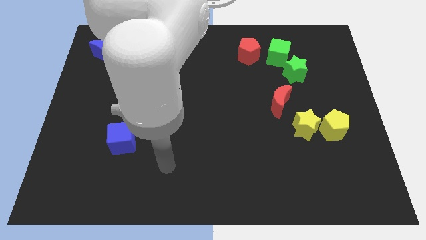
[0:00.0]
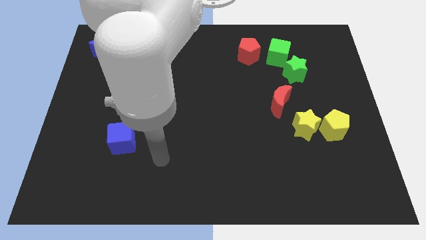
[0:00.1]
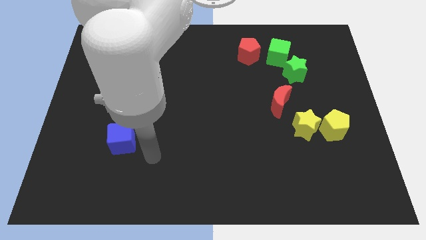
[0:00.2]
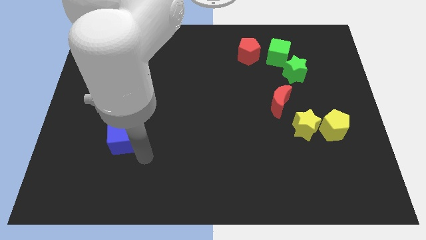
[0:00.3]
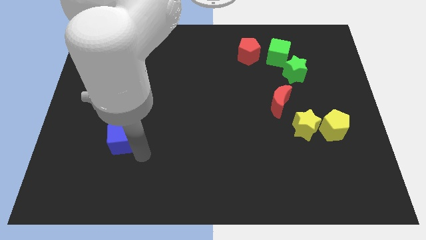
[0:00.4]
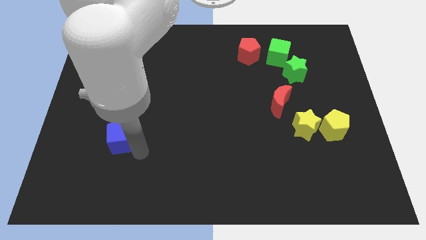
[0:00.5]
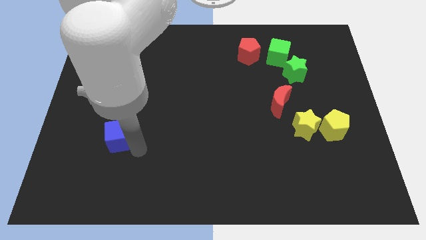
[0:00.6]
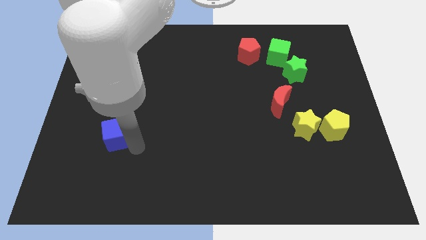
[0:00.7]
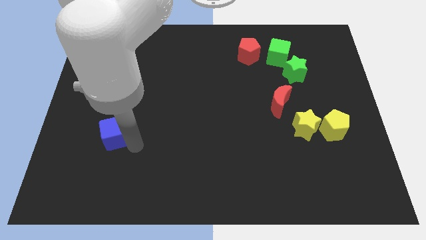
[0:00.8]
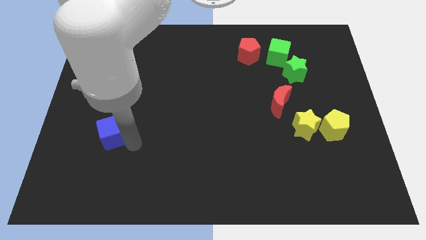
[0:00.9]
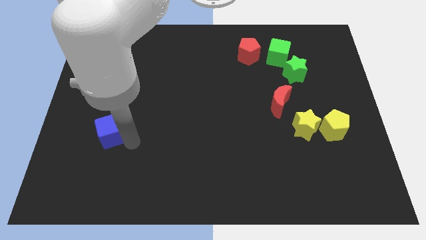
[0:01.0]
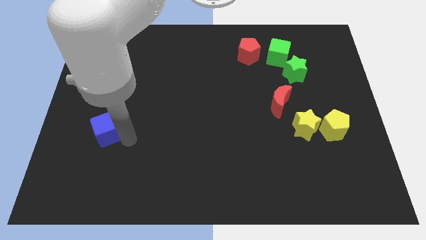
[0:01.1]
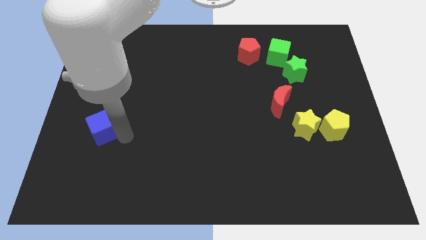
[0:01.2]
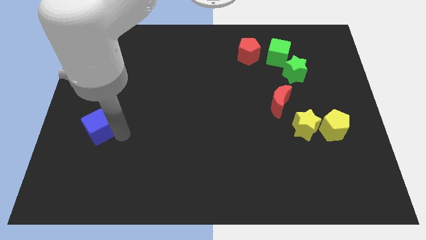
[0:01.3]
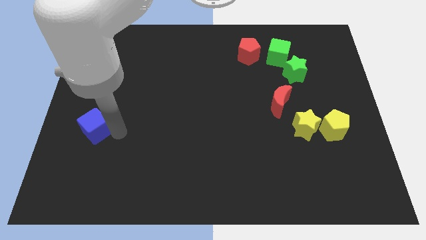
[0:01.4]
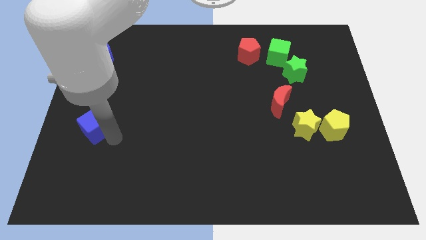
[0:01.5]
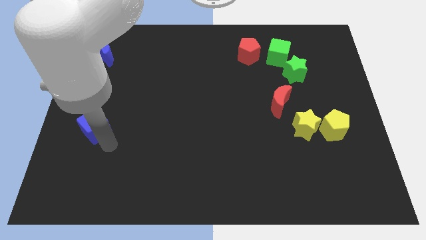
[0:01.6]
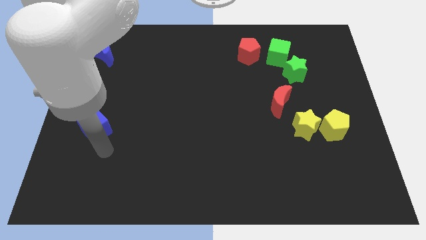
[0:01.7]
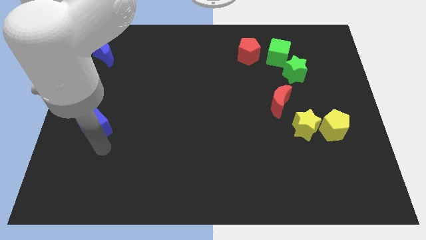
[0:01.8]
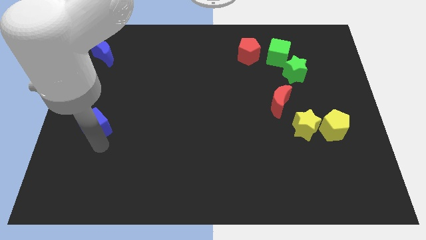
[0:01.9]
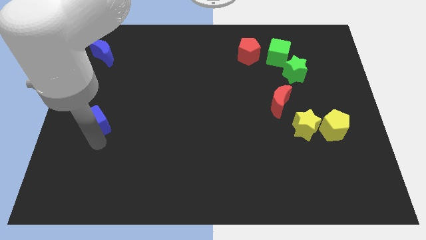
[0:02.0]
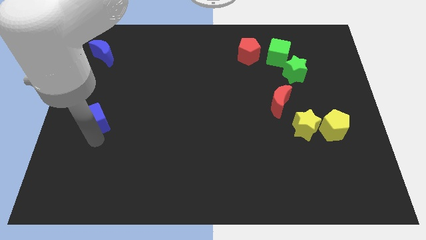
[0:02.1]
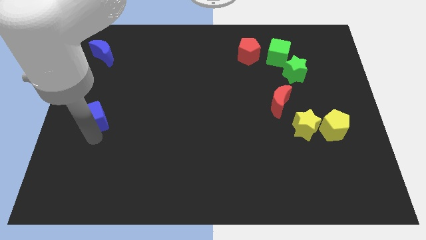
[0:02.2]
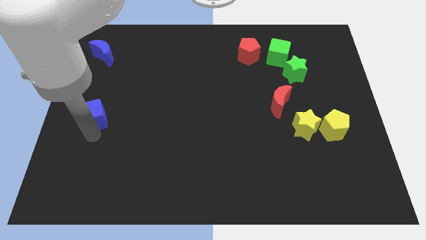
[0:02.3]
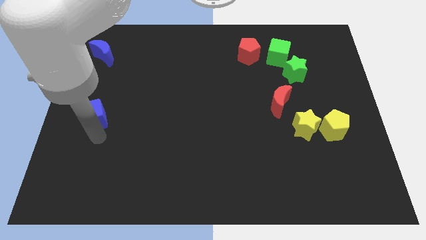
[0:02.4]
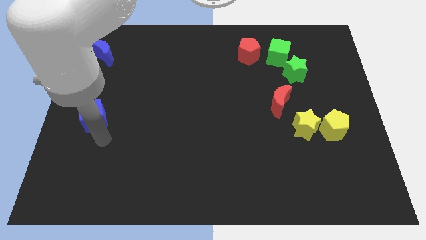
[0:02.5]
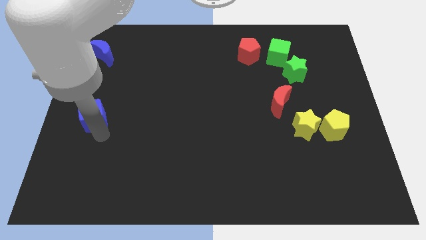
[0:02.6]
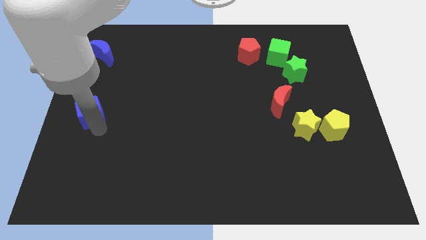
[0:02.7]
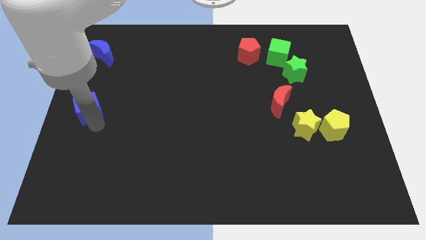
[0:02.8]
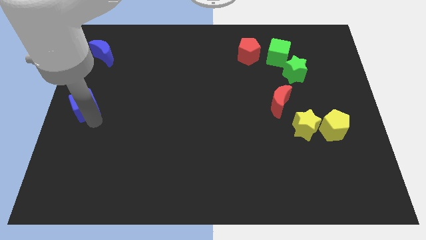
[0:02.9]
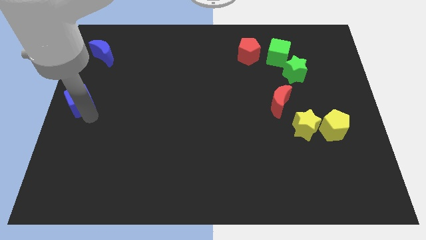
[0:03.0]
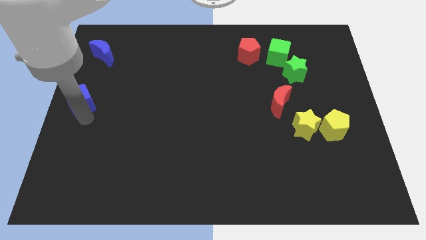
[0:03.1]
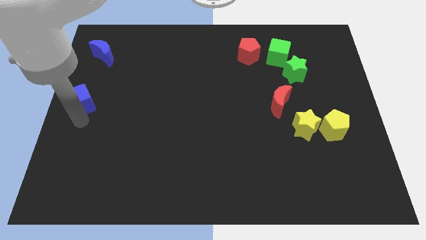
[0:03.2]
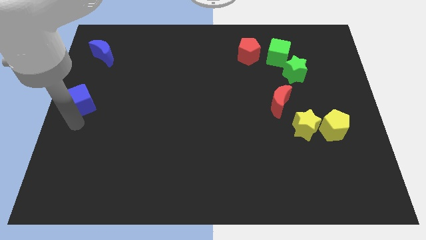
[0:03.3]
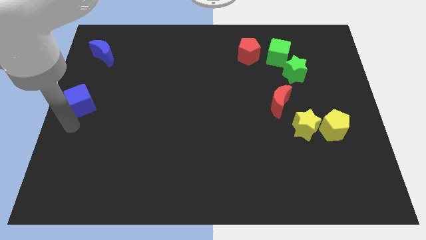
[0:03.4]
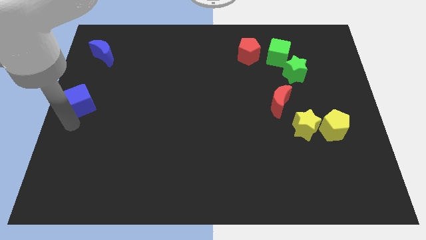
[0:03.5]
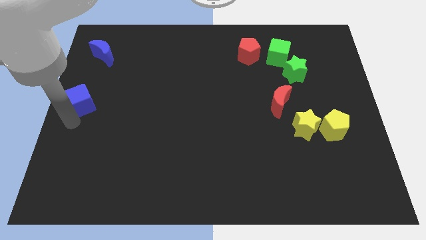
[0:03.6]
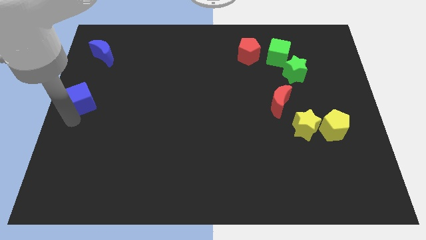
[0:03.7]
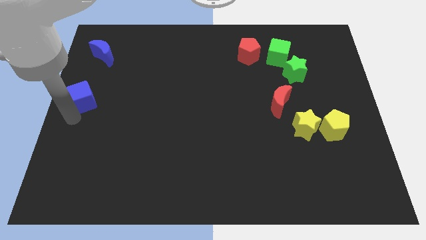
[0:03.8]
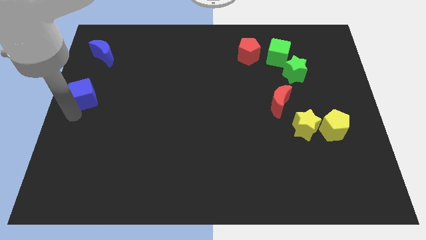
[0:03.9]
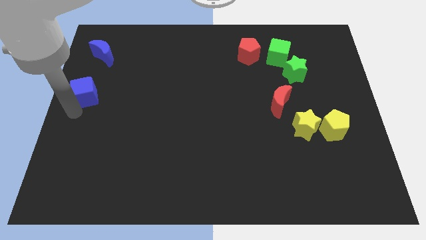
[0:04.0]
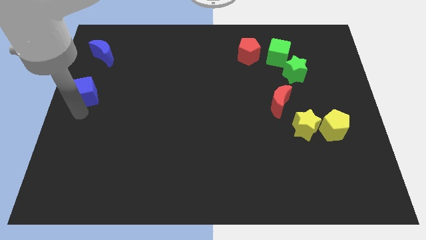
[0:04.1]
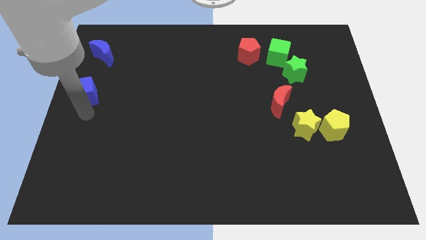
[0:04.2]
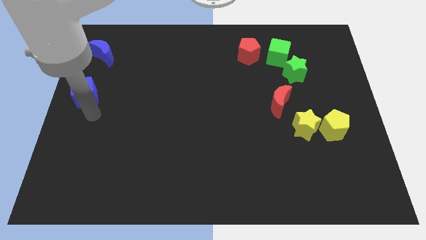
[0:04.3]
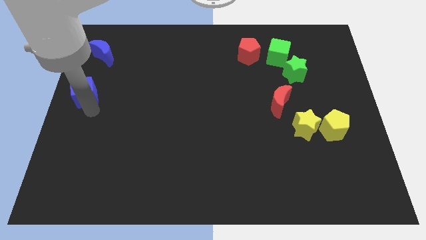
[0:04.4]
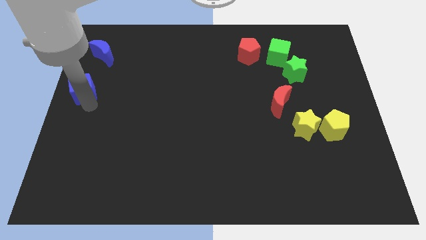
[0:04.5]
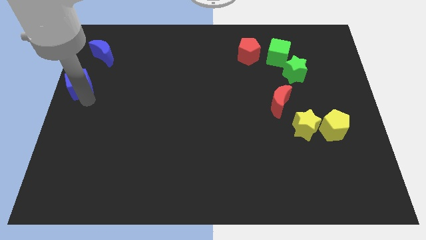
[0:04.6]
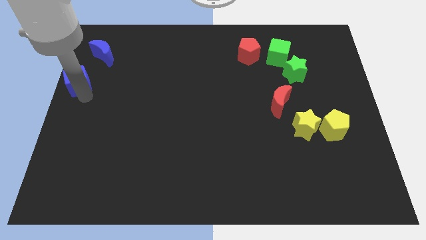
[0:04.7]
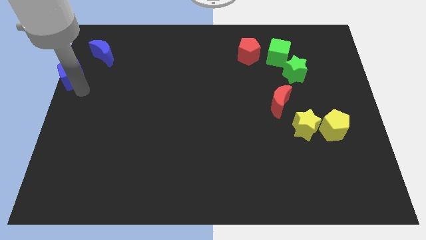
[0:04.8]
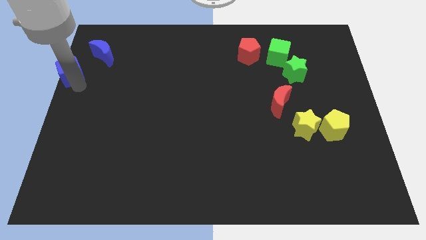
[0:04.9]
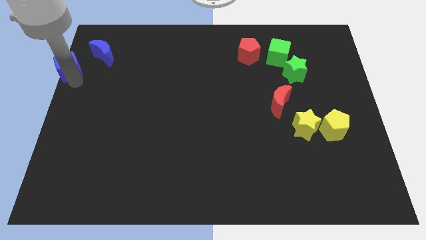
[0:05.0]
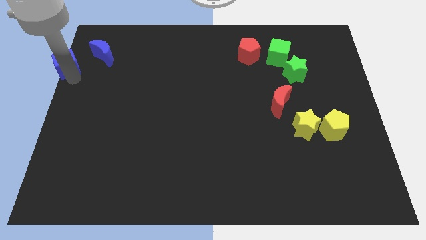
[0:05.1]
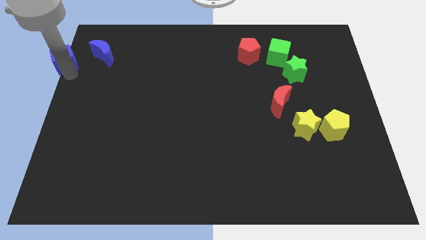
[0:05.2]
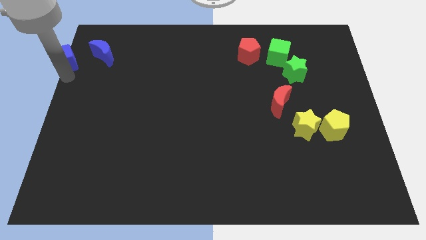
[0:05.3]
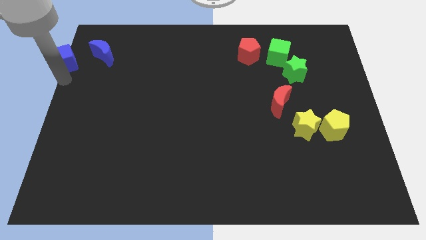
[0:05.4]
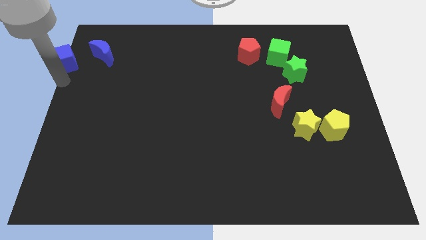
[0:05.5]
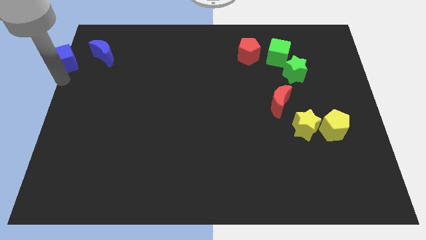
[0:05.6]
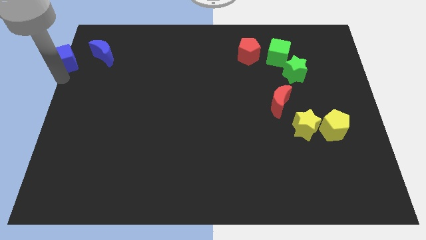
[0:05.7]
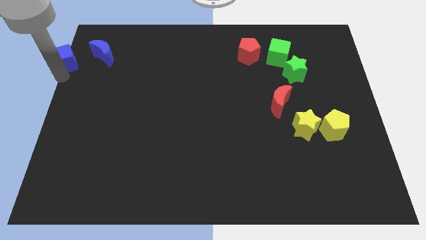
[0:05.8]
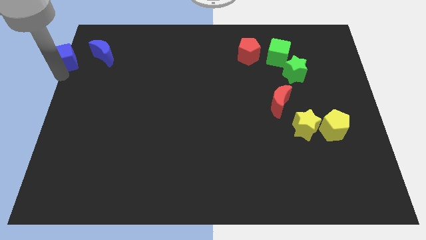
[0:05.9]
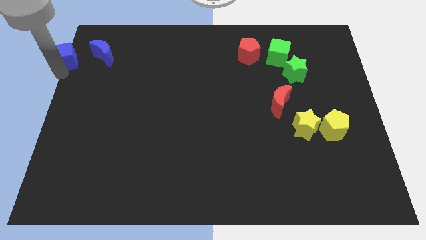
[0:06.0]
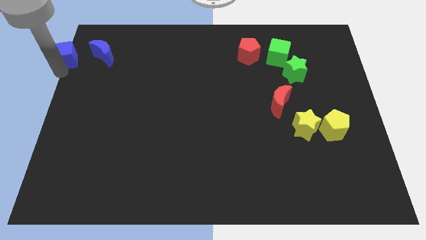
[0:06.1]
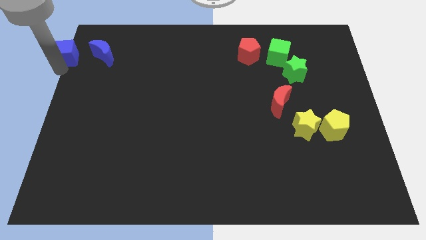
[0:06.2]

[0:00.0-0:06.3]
slide the blue cube to the top left of the board

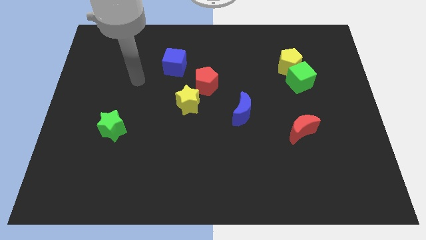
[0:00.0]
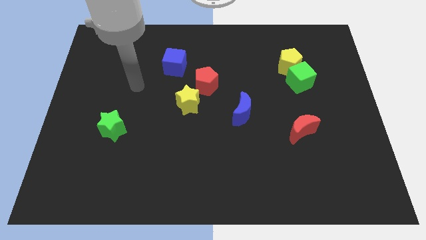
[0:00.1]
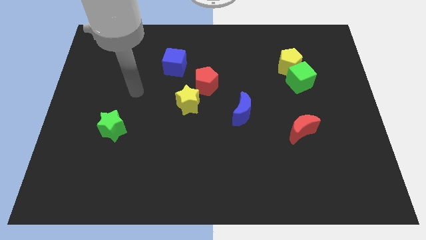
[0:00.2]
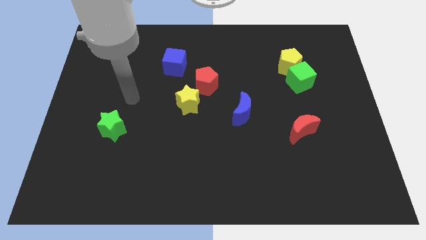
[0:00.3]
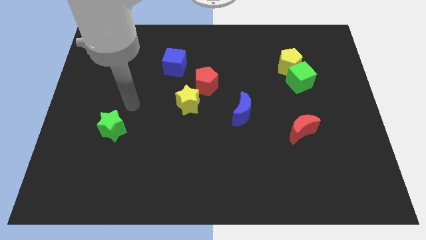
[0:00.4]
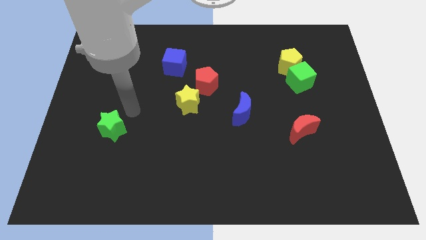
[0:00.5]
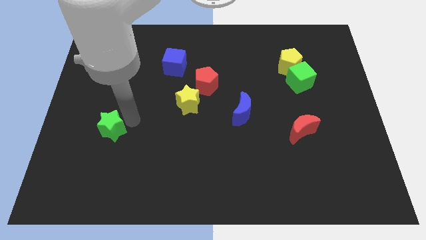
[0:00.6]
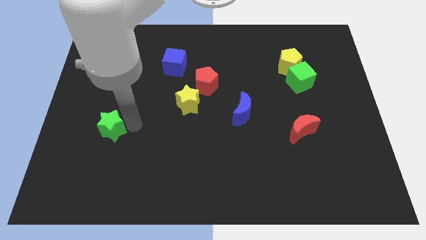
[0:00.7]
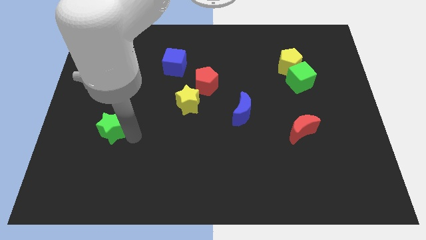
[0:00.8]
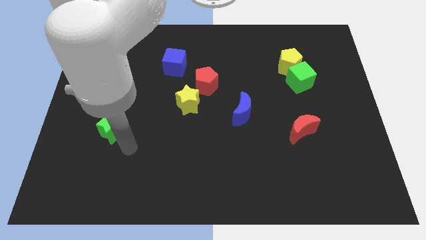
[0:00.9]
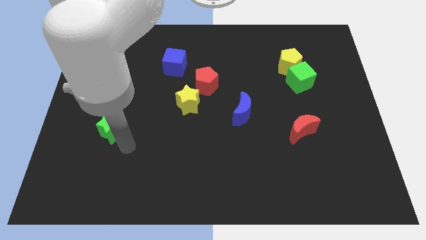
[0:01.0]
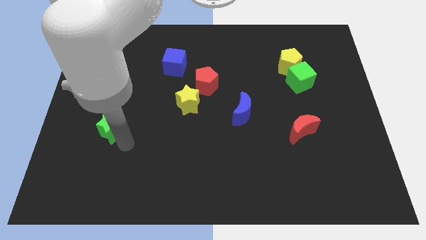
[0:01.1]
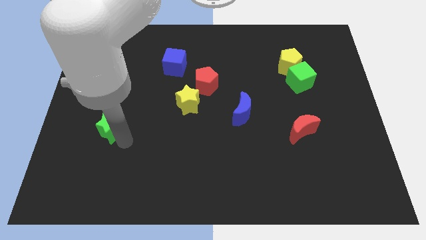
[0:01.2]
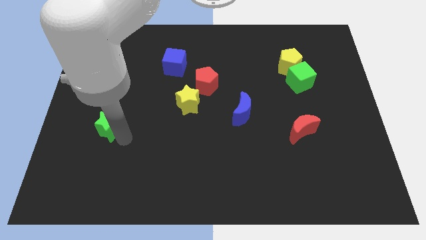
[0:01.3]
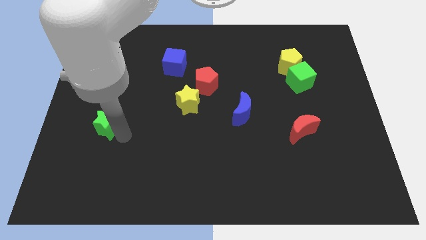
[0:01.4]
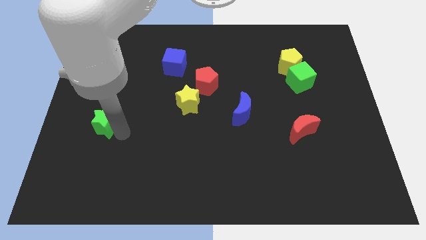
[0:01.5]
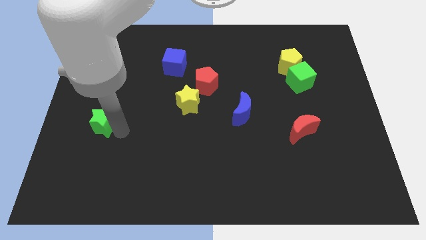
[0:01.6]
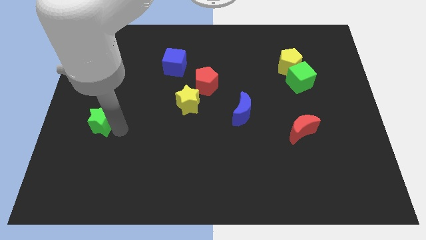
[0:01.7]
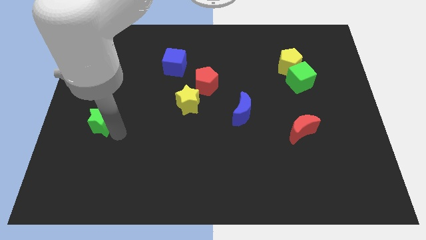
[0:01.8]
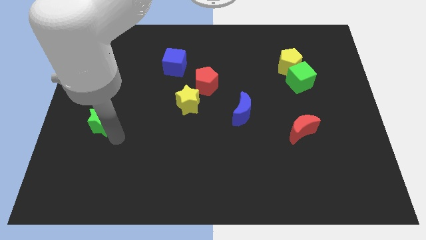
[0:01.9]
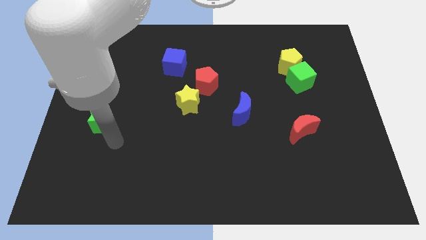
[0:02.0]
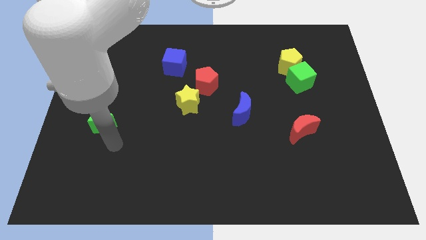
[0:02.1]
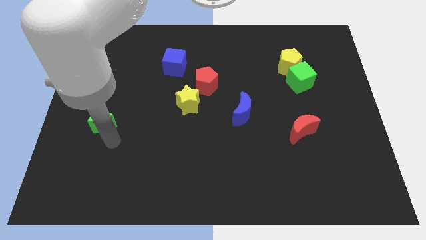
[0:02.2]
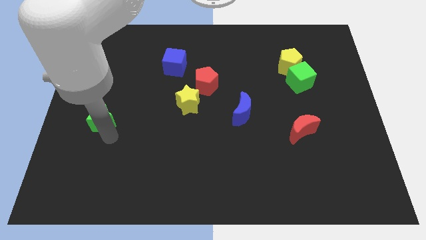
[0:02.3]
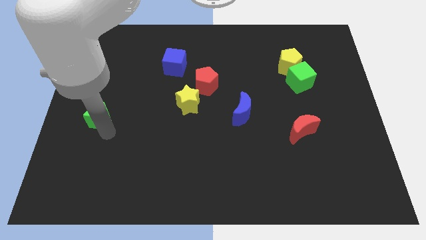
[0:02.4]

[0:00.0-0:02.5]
push the green star to the center left
